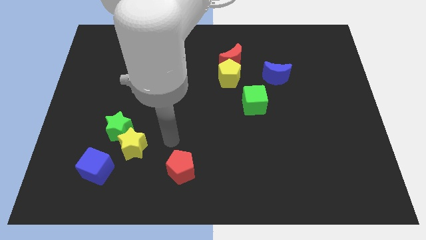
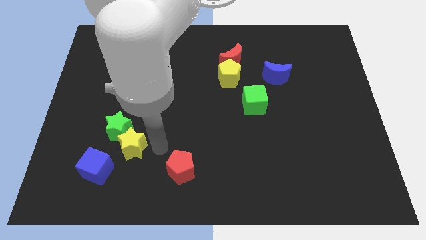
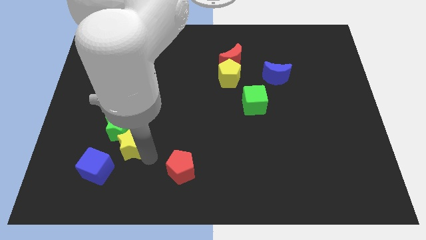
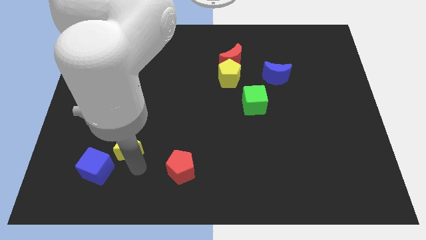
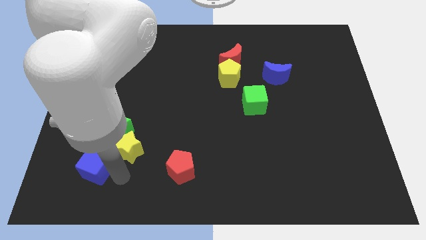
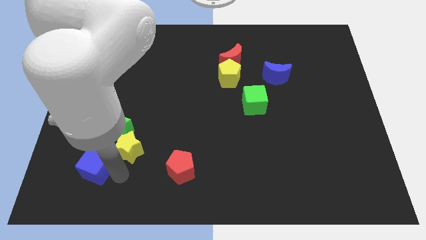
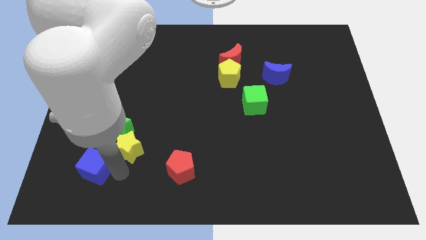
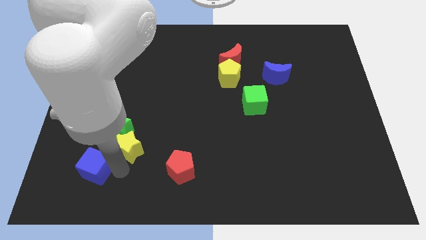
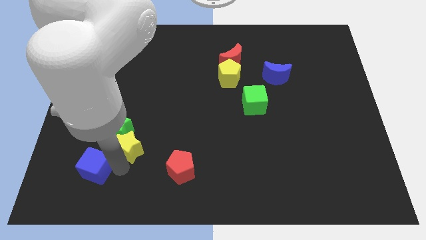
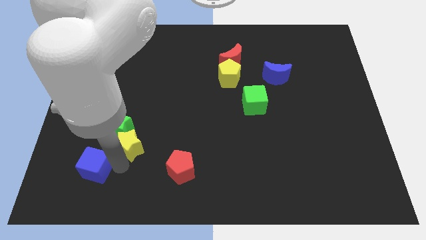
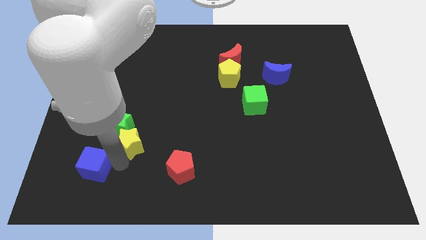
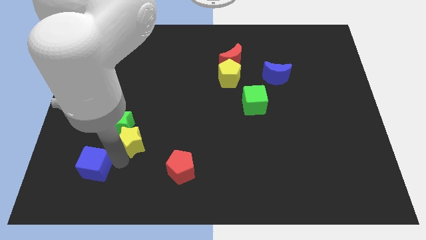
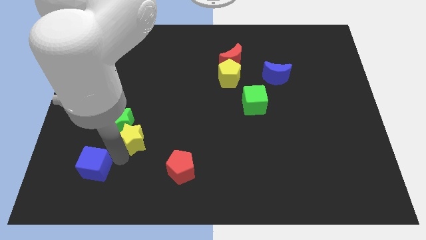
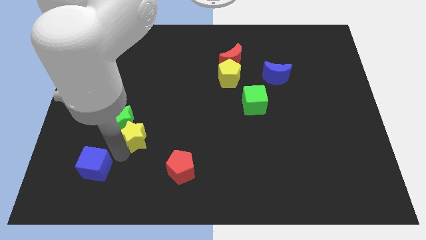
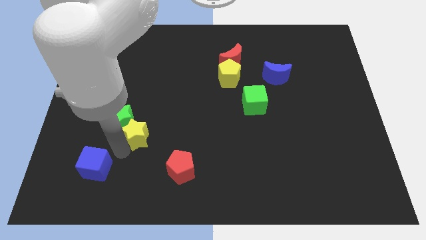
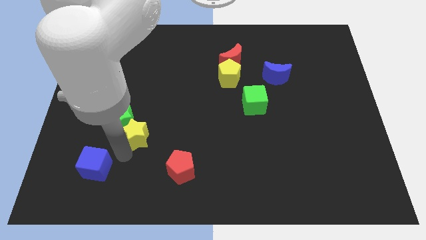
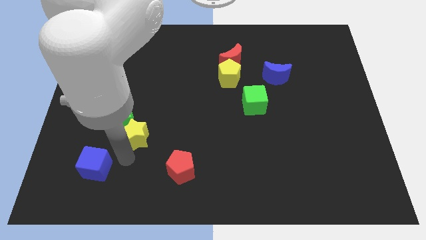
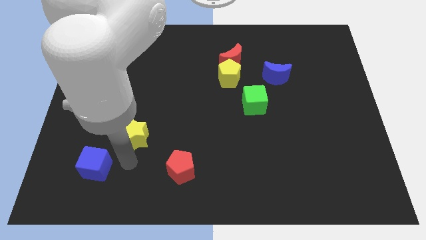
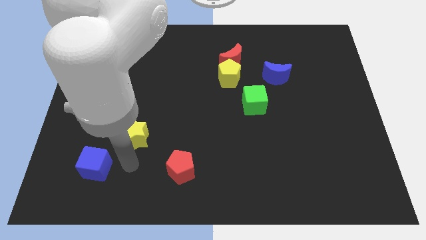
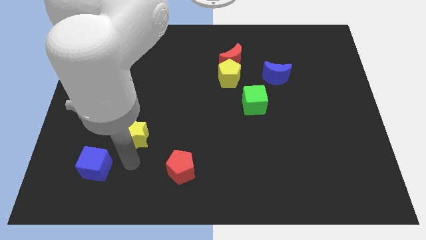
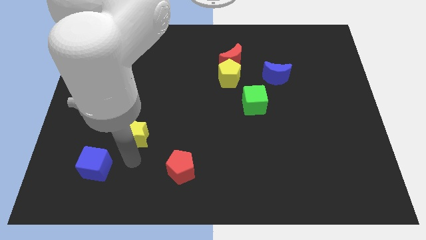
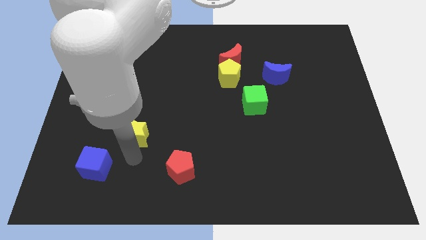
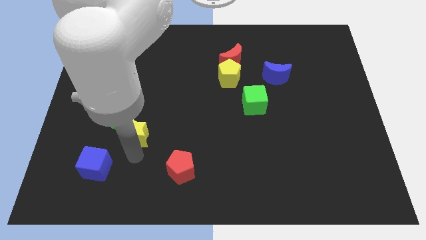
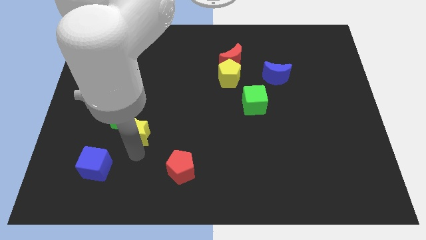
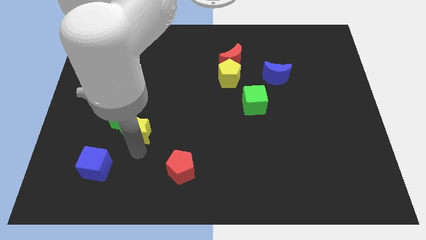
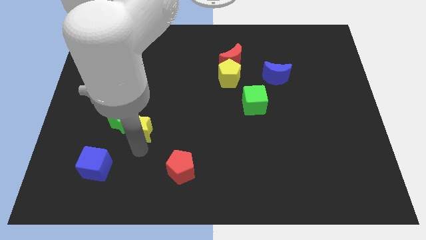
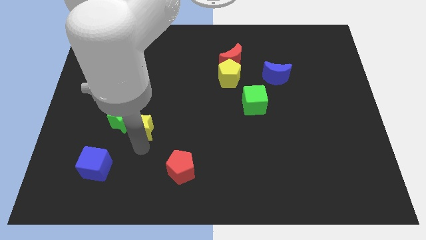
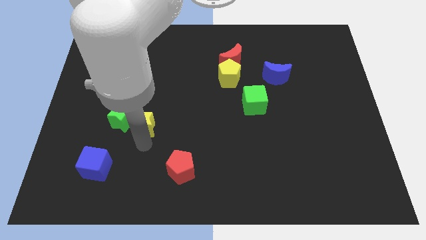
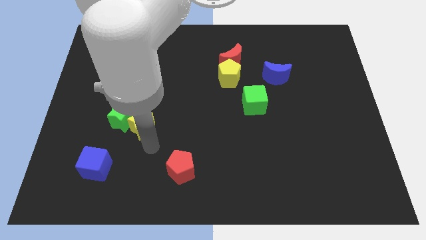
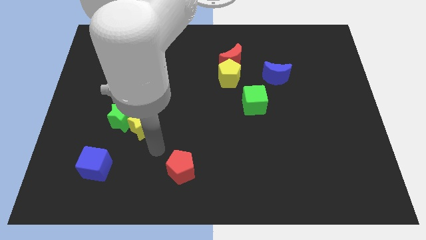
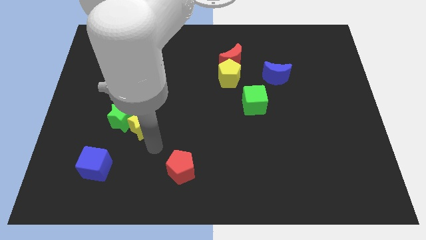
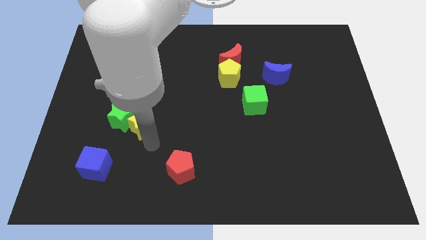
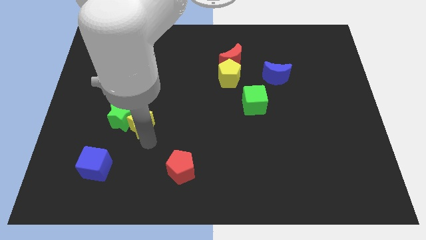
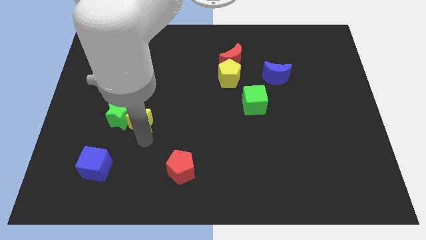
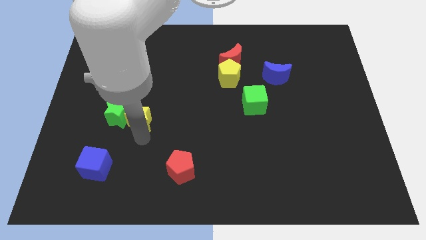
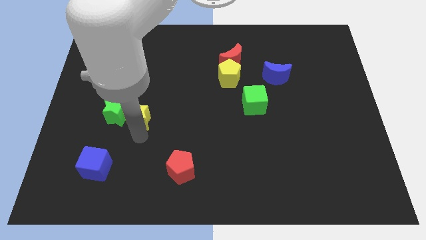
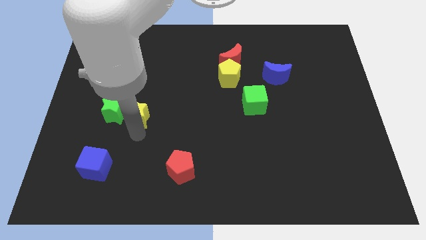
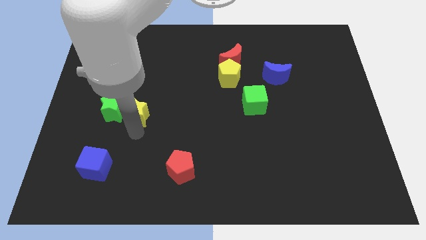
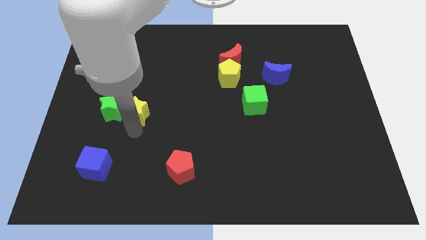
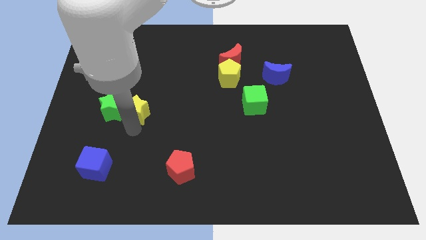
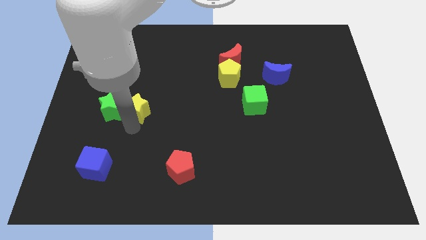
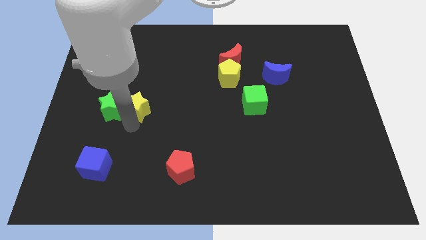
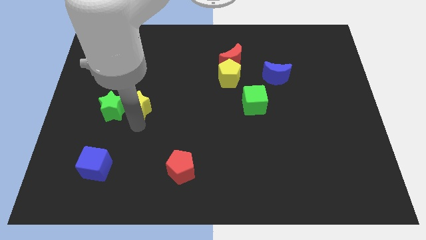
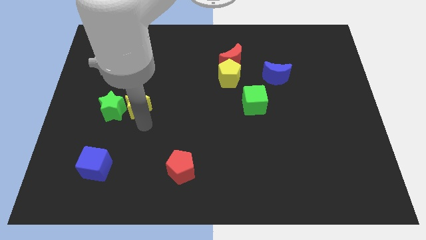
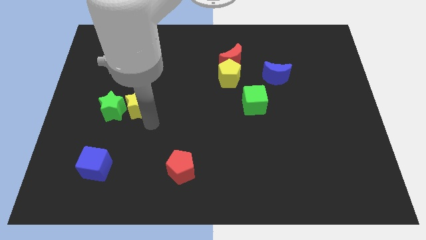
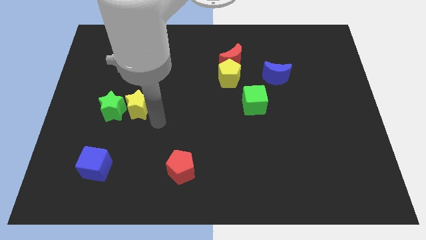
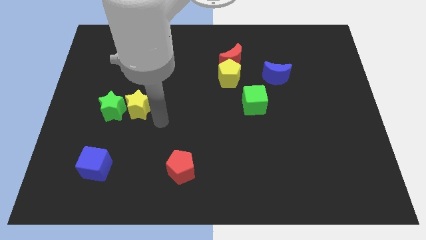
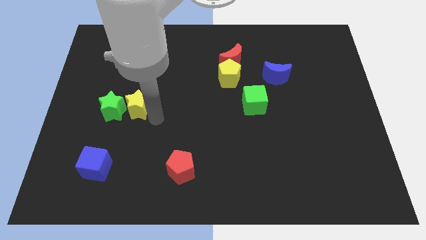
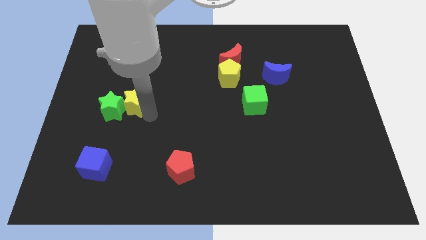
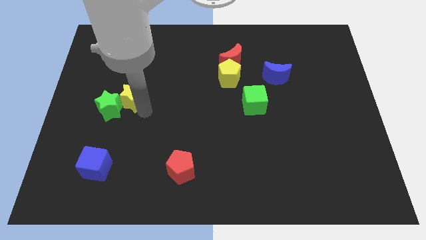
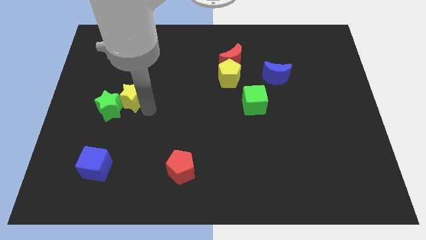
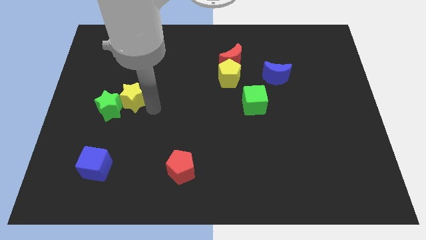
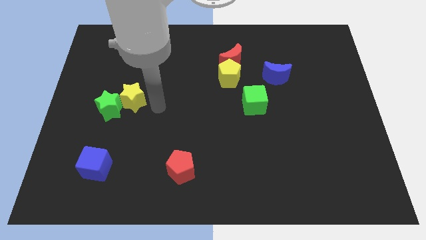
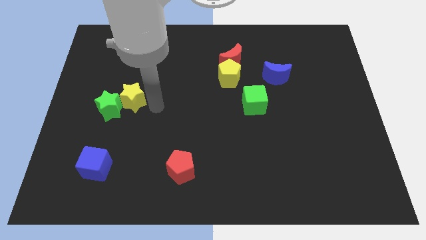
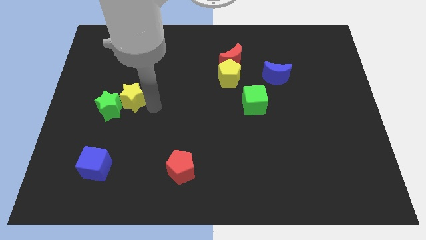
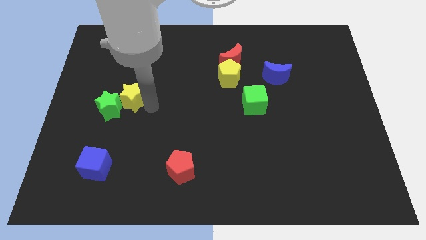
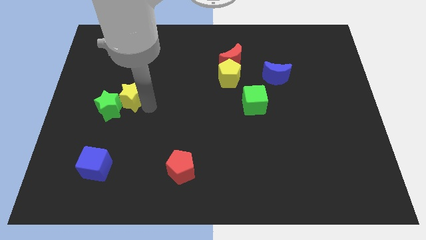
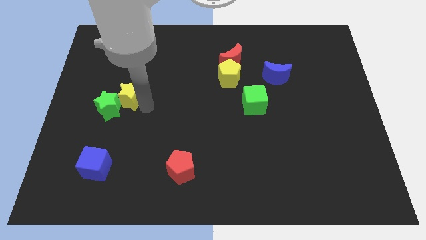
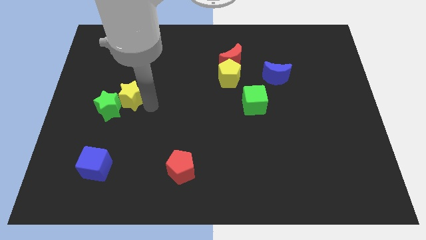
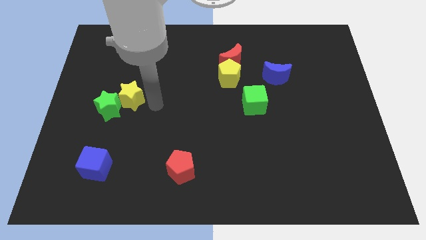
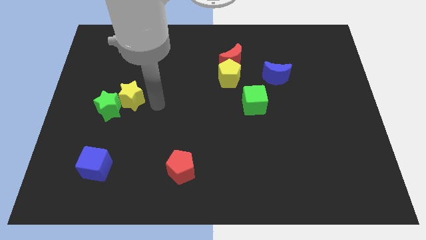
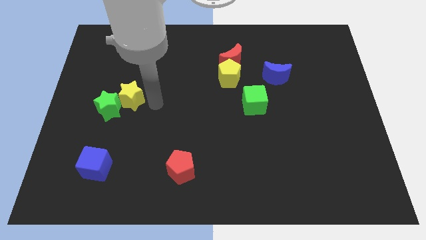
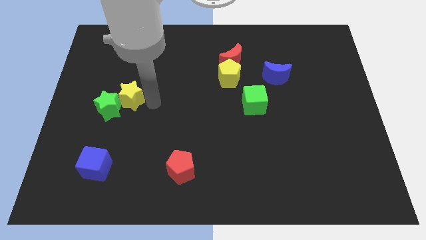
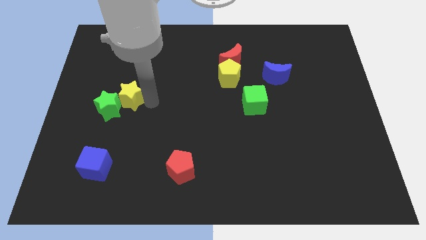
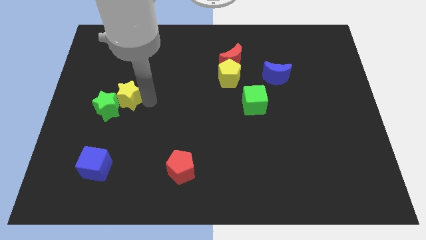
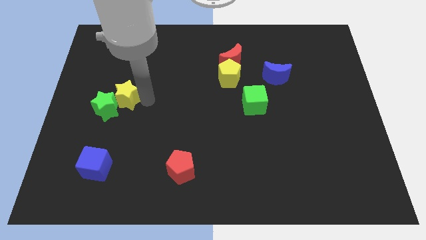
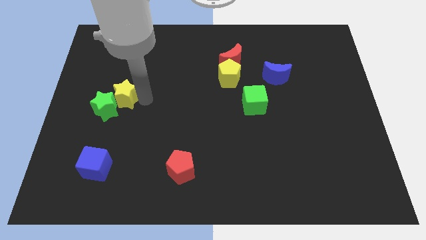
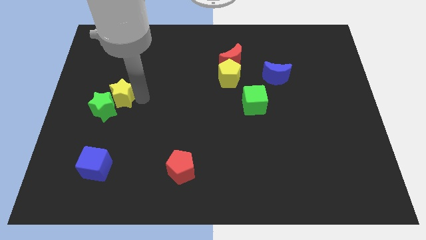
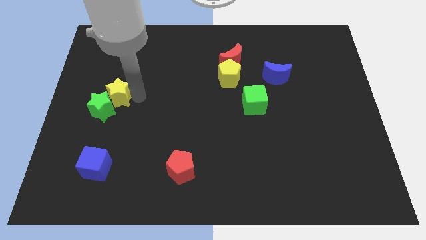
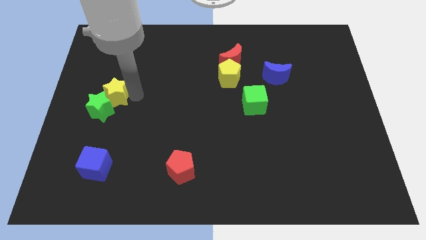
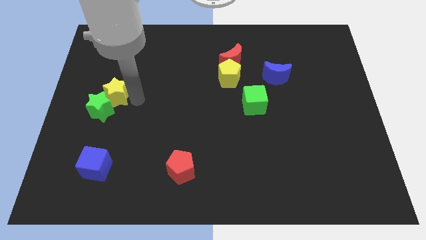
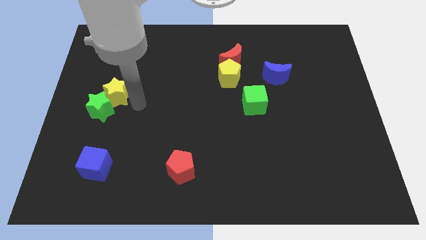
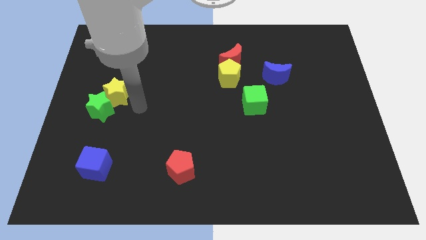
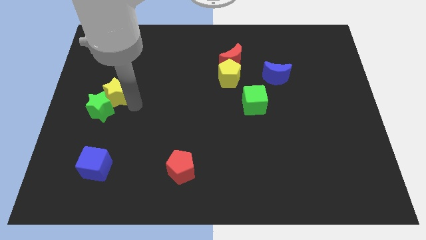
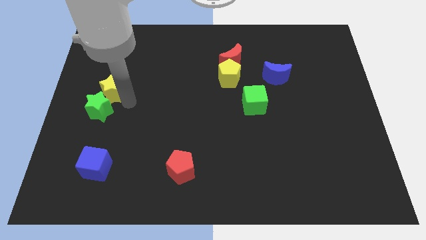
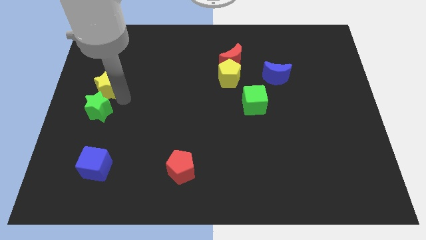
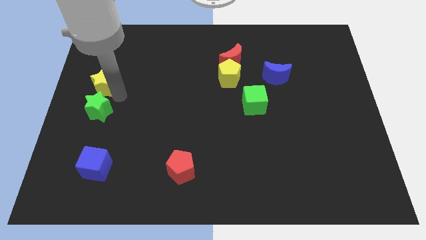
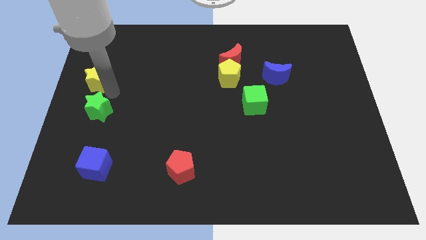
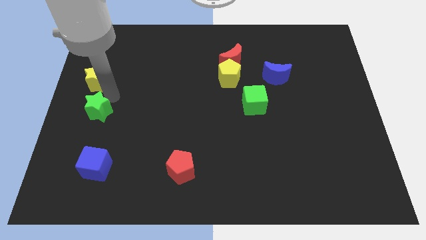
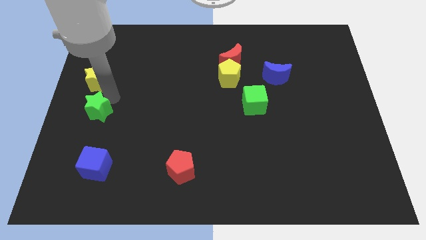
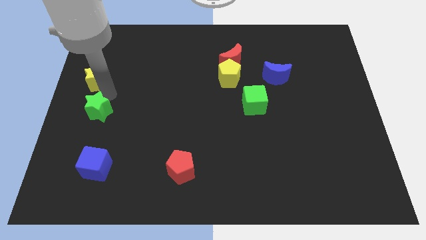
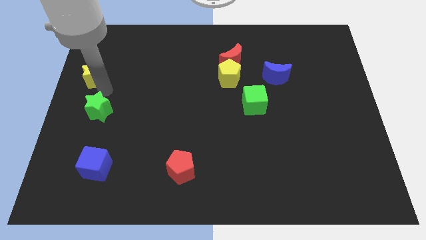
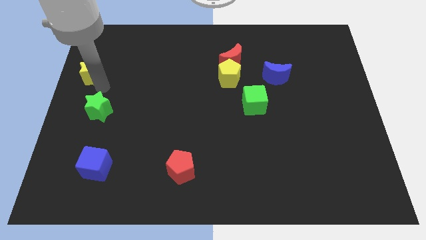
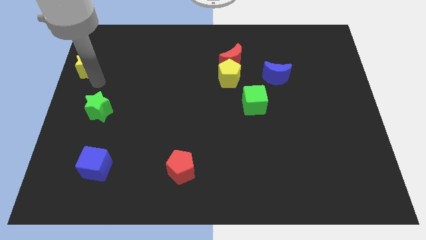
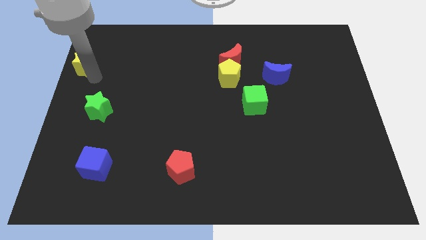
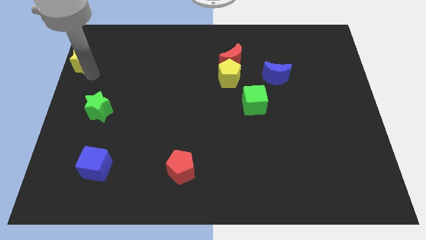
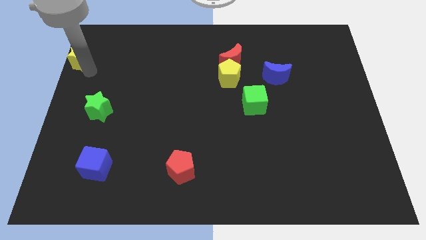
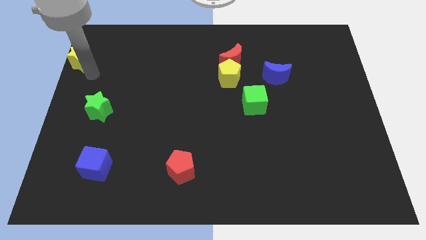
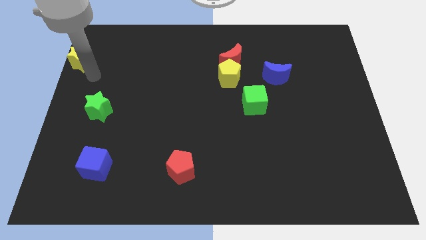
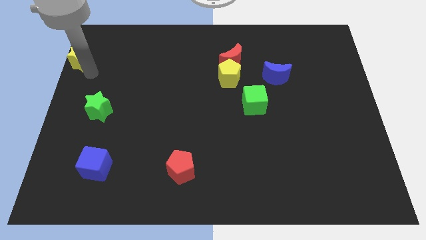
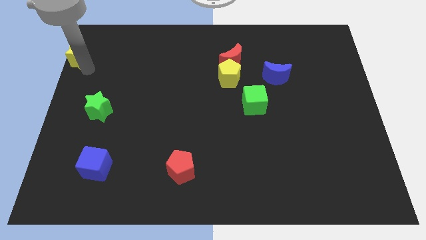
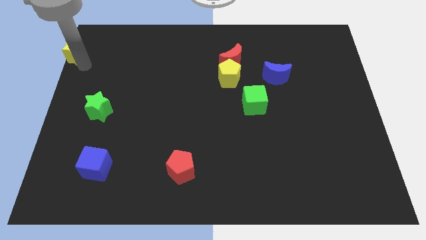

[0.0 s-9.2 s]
slide the yellow star to the top left
